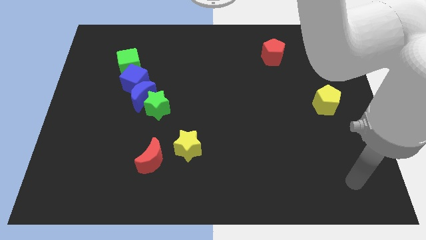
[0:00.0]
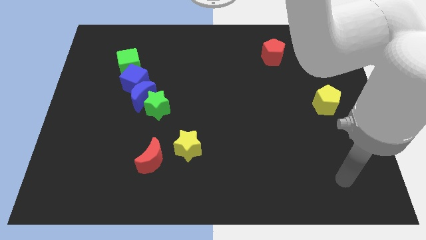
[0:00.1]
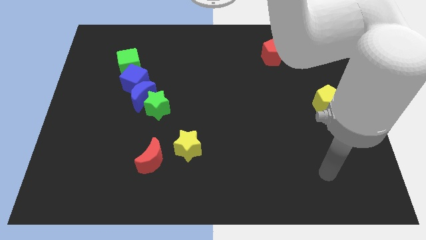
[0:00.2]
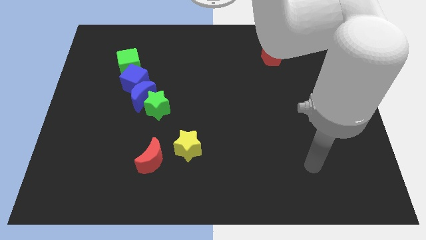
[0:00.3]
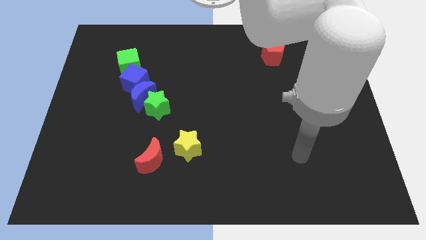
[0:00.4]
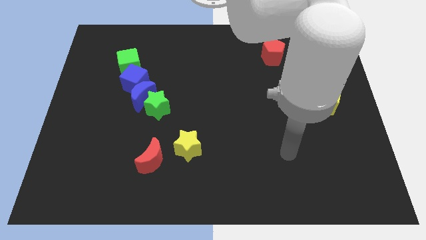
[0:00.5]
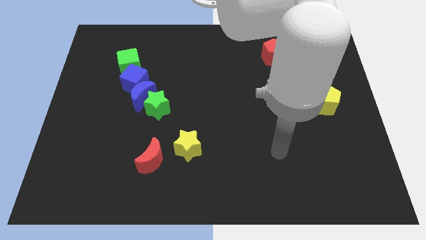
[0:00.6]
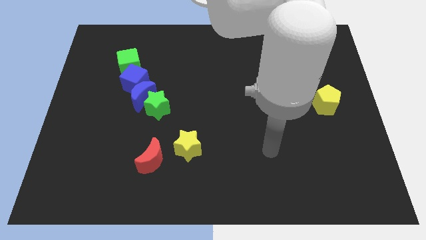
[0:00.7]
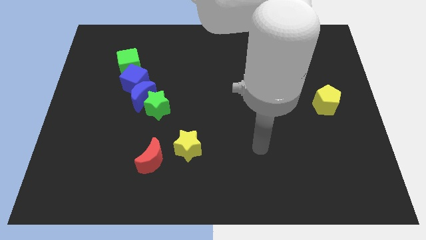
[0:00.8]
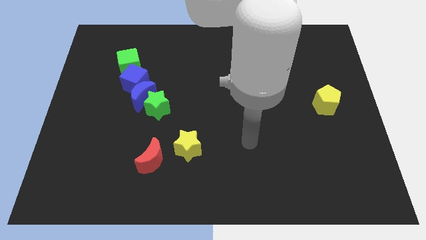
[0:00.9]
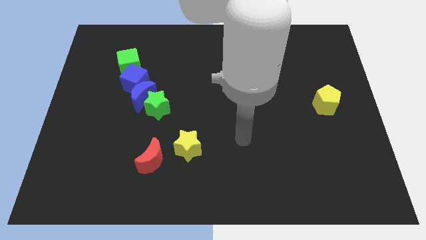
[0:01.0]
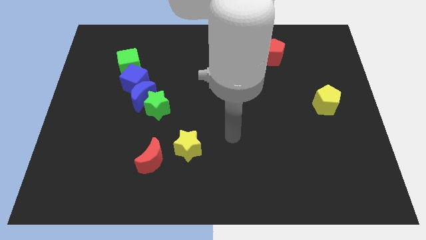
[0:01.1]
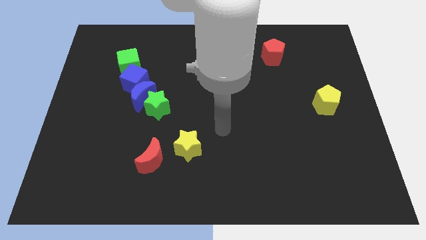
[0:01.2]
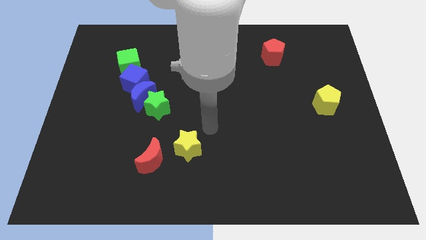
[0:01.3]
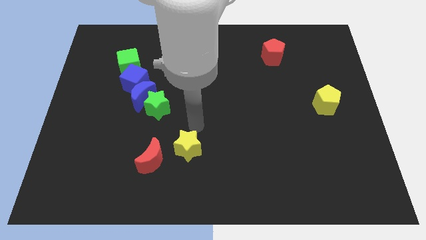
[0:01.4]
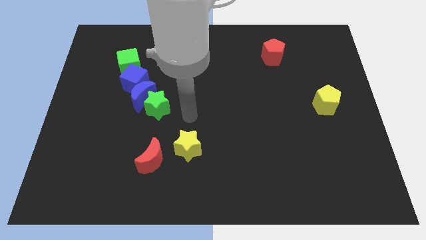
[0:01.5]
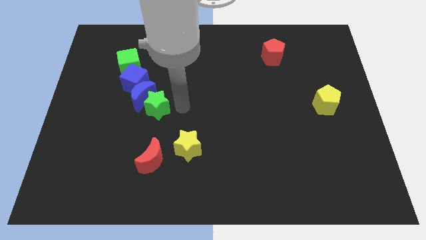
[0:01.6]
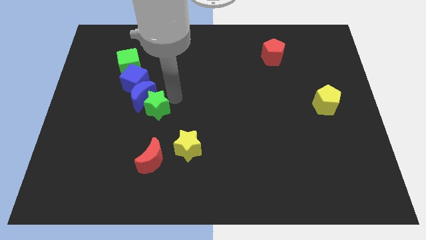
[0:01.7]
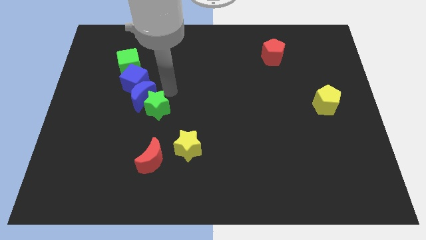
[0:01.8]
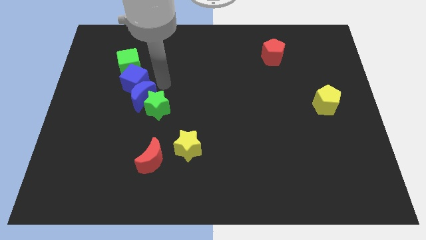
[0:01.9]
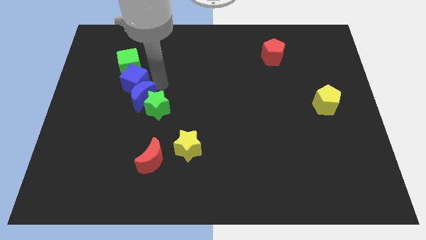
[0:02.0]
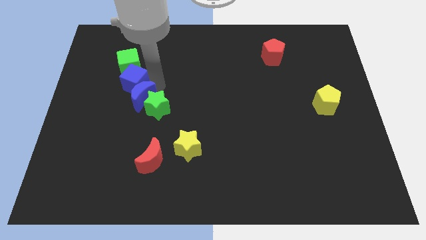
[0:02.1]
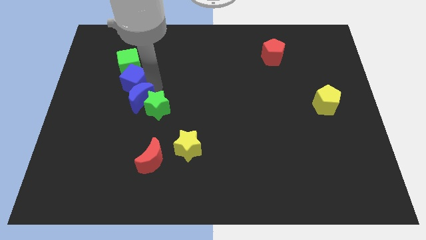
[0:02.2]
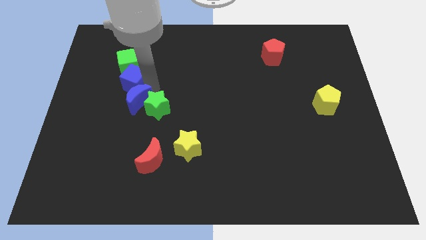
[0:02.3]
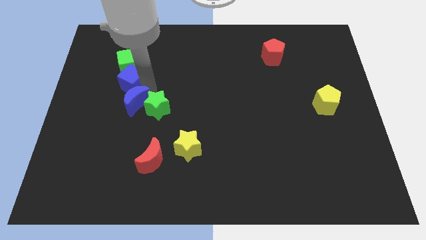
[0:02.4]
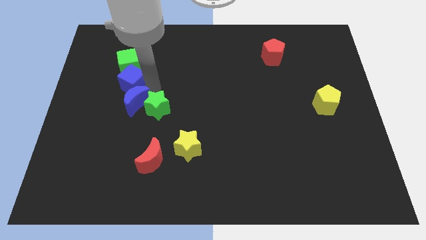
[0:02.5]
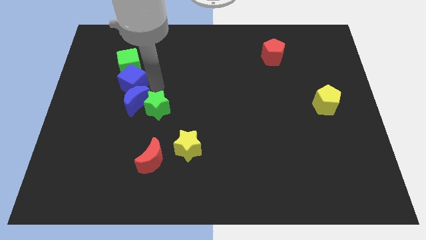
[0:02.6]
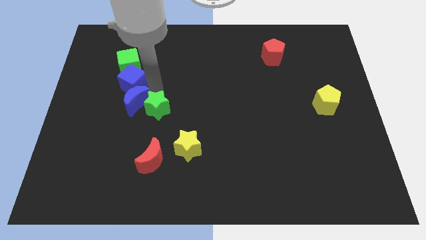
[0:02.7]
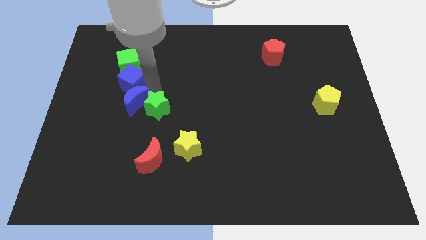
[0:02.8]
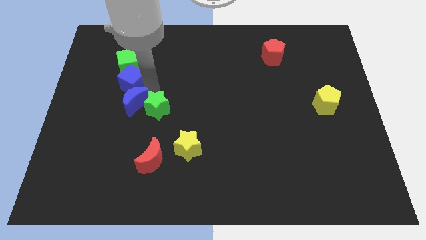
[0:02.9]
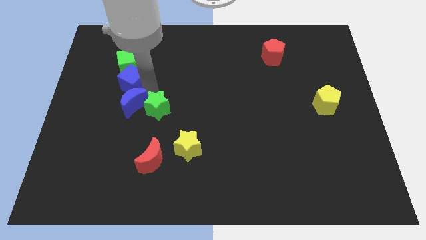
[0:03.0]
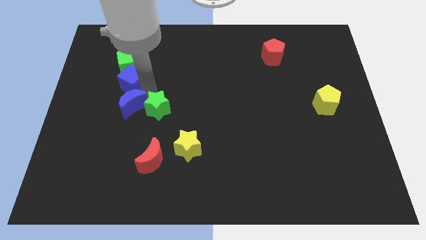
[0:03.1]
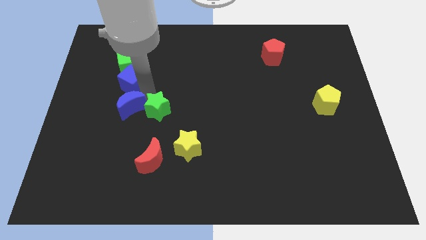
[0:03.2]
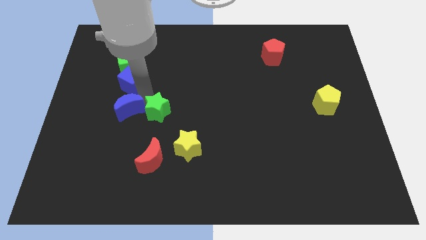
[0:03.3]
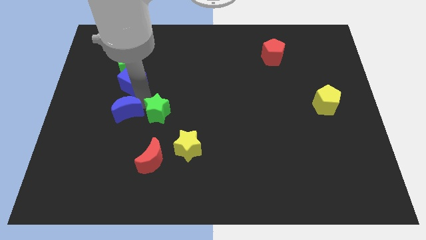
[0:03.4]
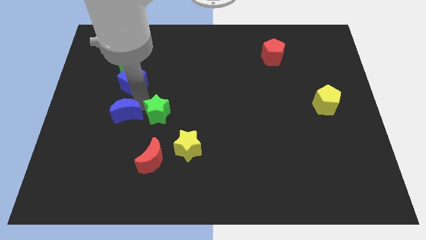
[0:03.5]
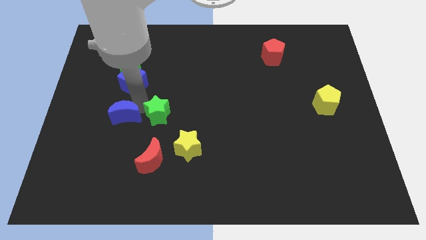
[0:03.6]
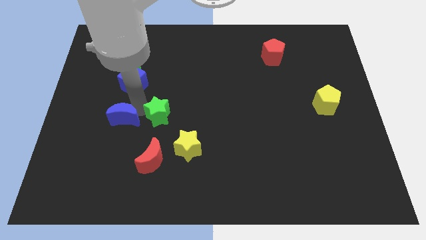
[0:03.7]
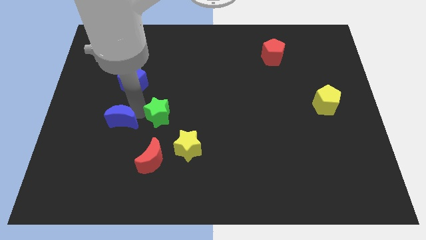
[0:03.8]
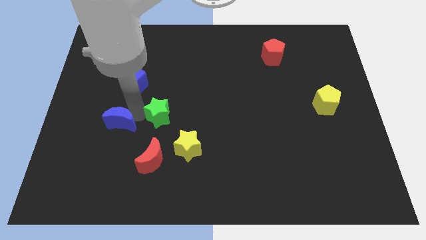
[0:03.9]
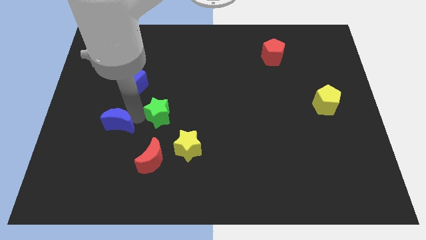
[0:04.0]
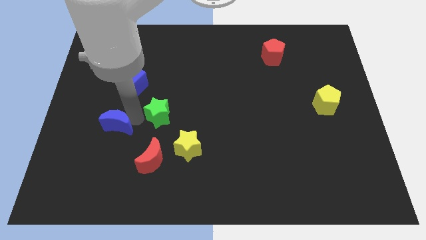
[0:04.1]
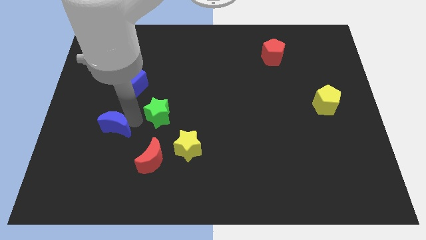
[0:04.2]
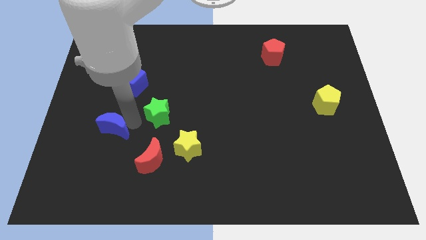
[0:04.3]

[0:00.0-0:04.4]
pull the blue moon apart from the green star and blue cube

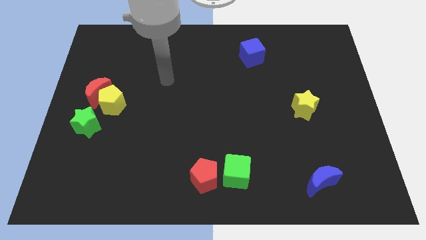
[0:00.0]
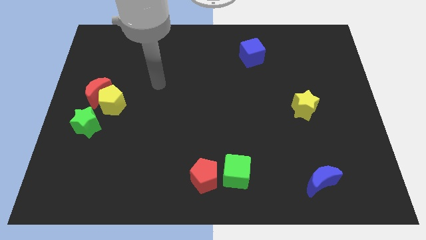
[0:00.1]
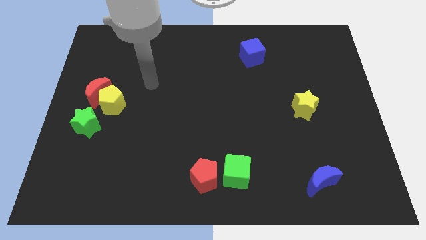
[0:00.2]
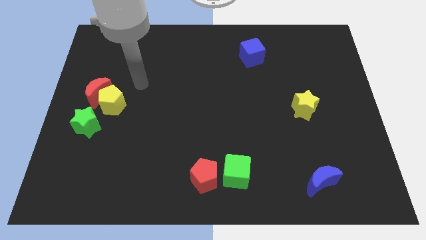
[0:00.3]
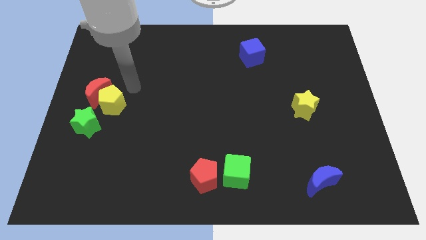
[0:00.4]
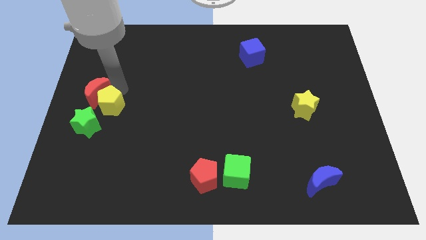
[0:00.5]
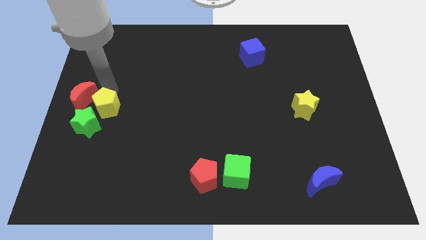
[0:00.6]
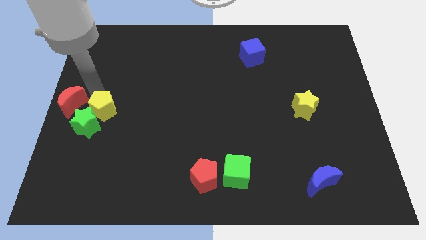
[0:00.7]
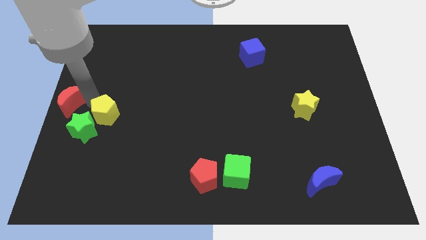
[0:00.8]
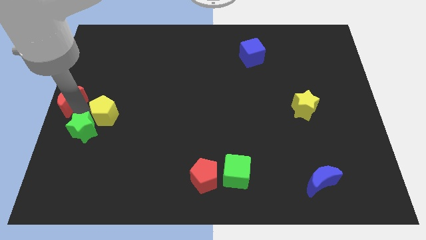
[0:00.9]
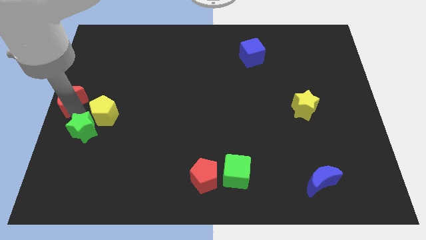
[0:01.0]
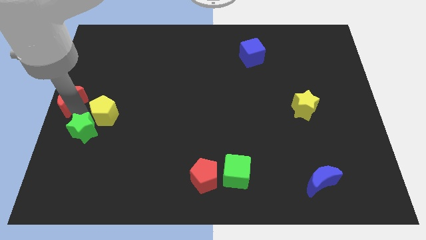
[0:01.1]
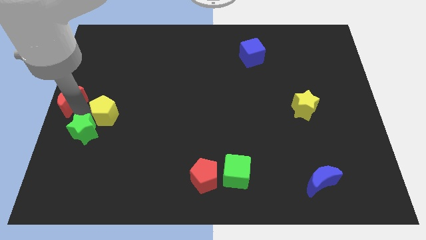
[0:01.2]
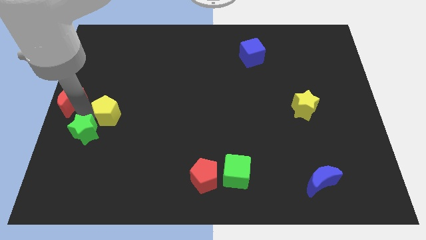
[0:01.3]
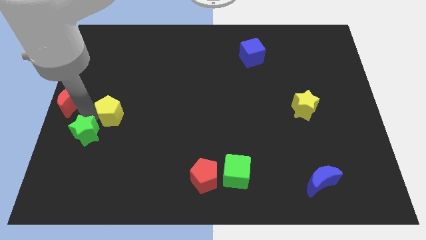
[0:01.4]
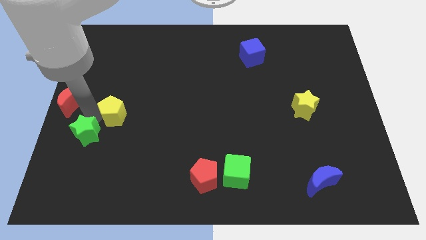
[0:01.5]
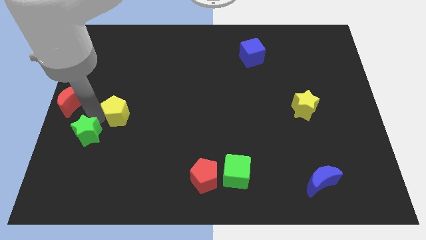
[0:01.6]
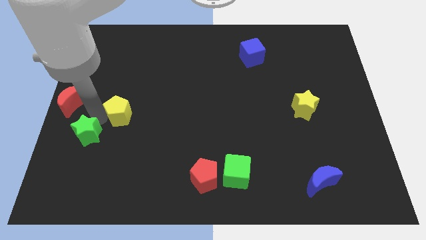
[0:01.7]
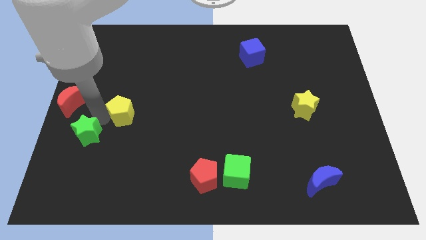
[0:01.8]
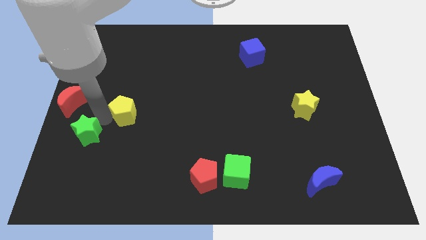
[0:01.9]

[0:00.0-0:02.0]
separate the yellow pentagon from the red moon and green star

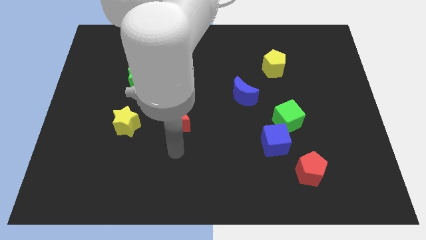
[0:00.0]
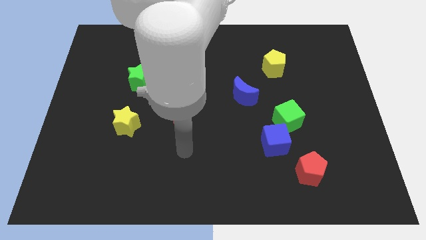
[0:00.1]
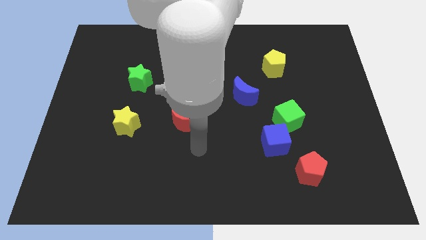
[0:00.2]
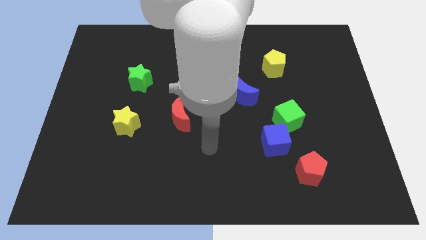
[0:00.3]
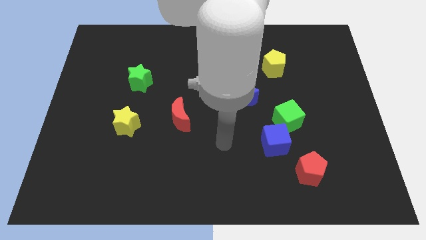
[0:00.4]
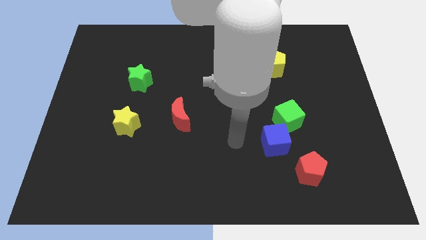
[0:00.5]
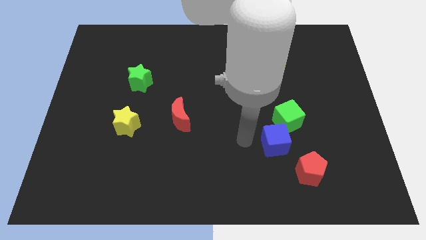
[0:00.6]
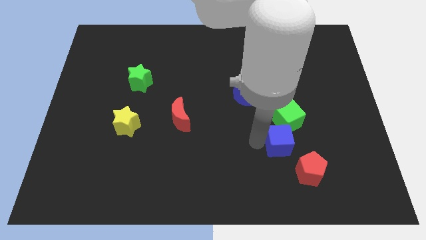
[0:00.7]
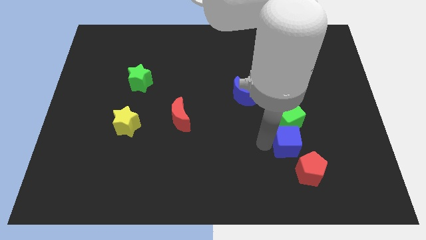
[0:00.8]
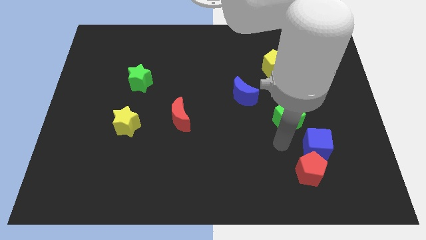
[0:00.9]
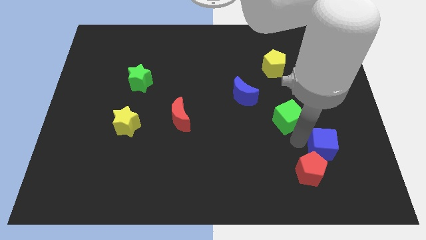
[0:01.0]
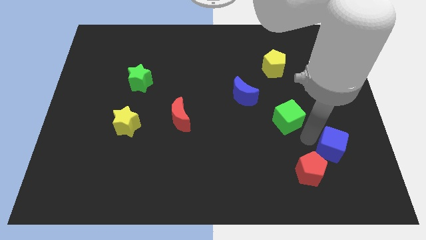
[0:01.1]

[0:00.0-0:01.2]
pull the green cube apart from the blue cube

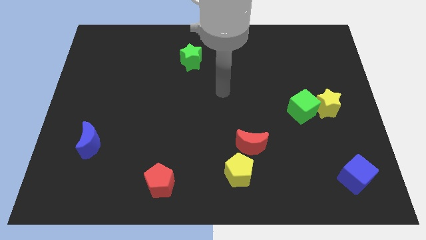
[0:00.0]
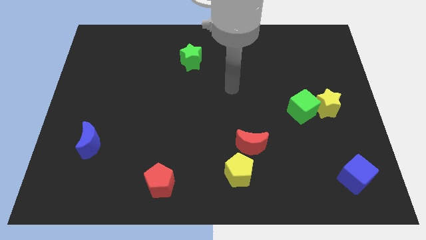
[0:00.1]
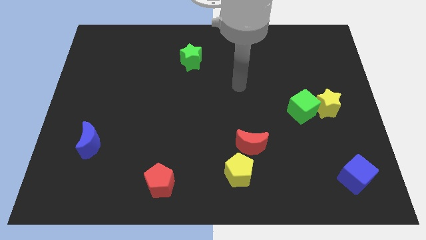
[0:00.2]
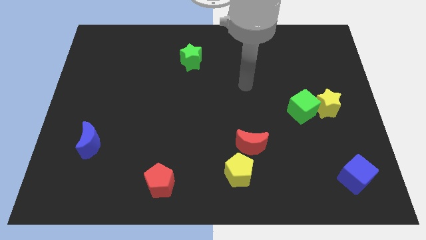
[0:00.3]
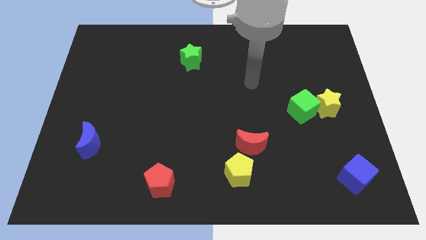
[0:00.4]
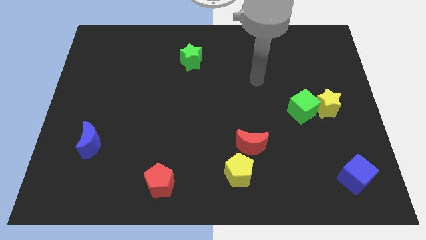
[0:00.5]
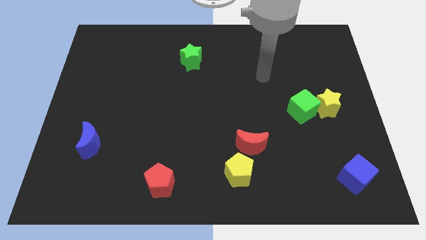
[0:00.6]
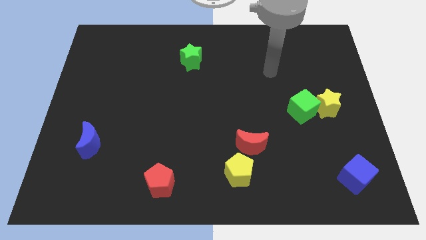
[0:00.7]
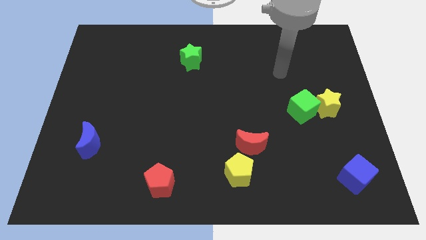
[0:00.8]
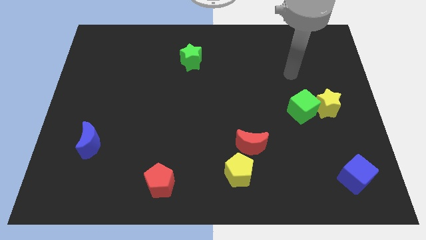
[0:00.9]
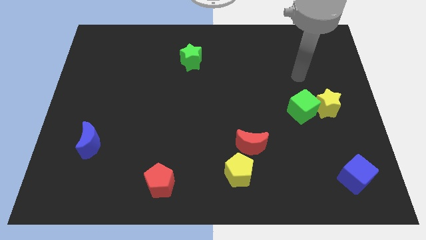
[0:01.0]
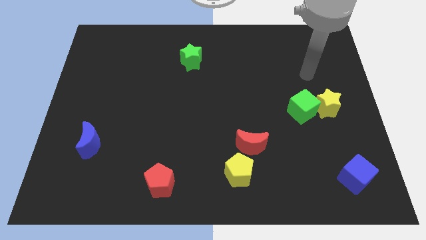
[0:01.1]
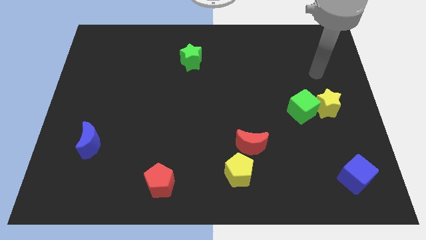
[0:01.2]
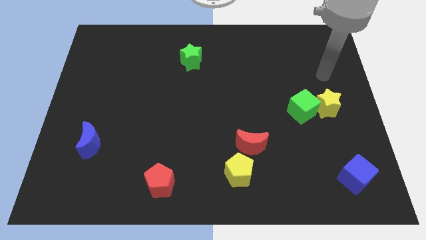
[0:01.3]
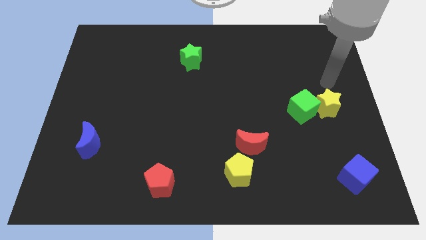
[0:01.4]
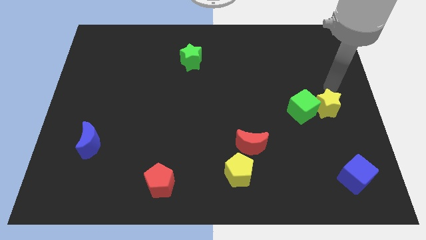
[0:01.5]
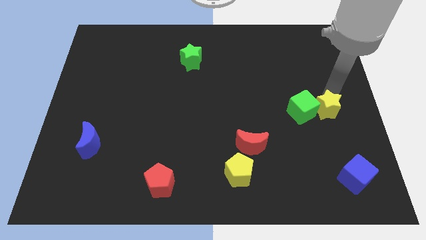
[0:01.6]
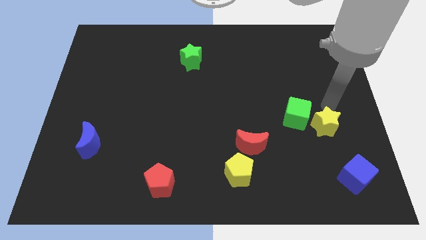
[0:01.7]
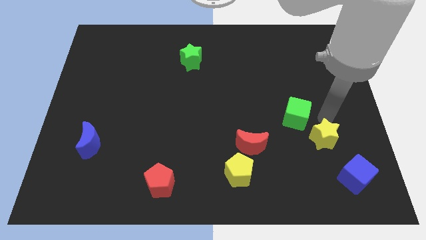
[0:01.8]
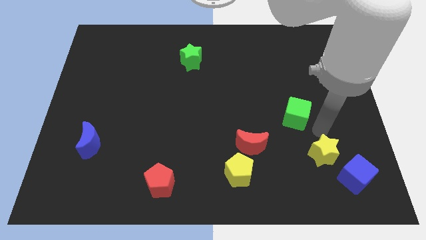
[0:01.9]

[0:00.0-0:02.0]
pull the green cube apart from the yellow star
